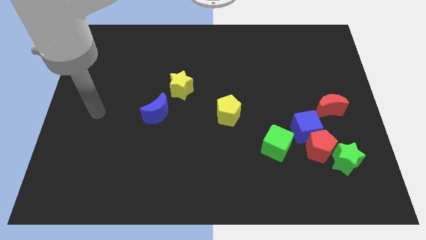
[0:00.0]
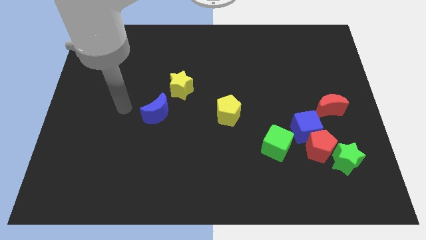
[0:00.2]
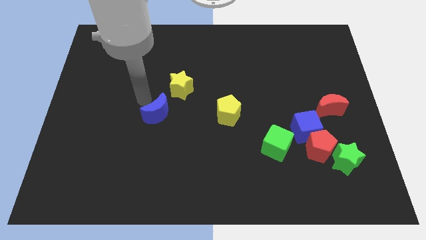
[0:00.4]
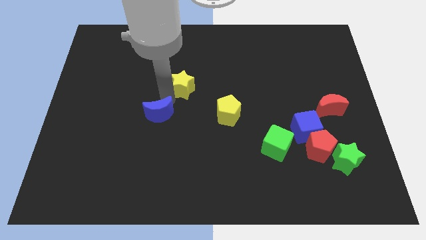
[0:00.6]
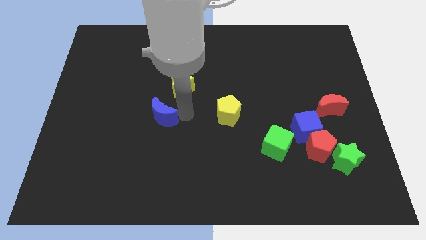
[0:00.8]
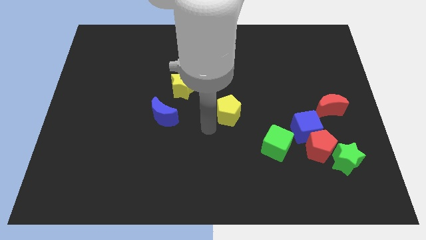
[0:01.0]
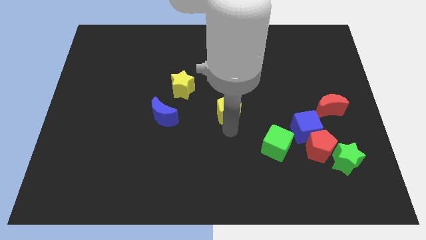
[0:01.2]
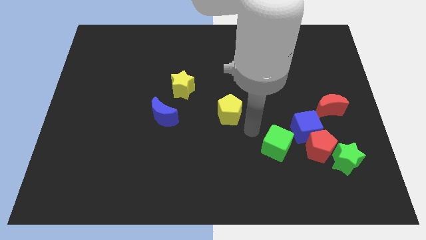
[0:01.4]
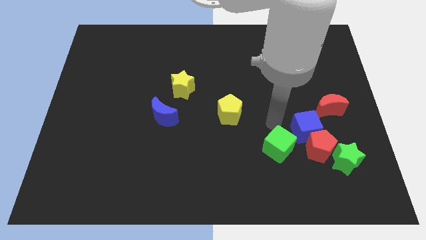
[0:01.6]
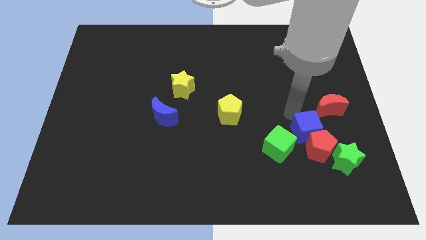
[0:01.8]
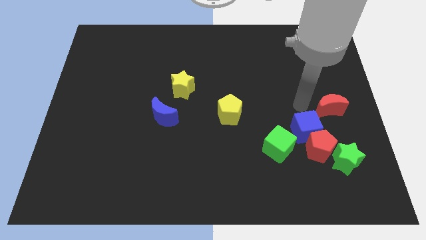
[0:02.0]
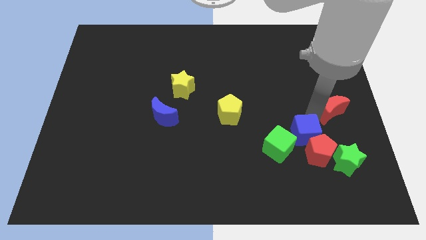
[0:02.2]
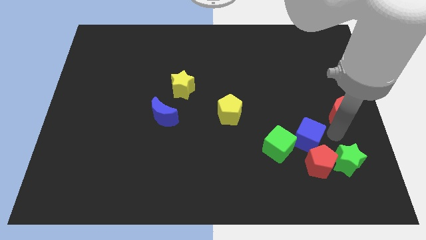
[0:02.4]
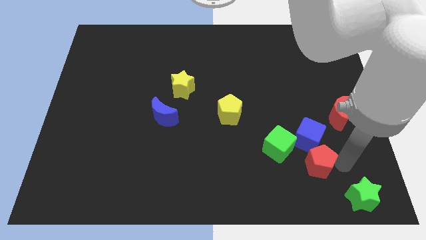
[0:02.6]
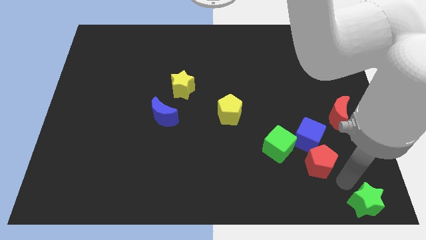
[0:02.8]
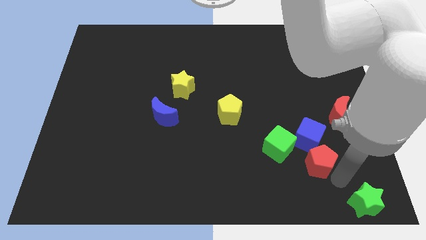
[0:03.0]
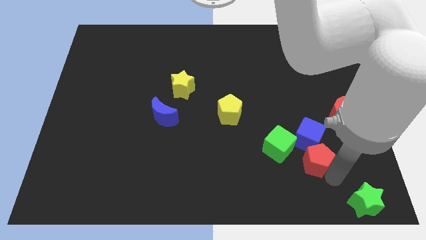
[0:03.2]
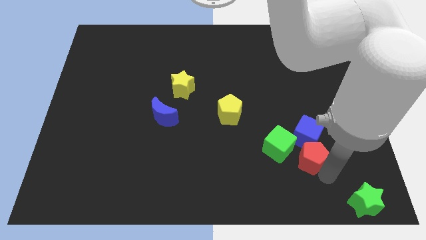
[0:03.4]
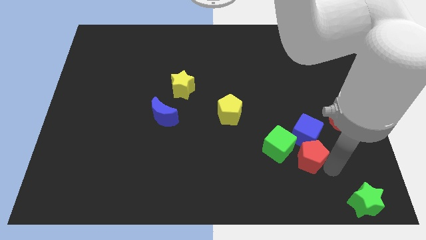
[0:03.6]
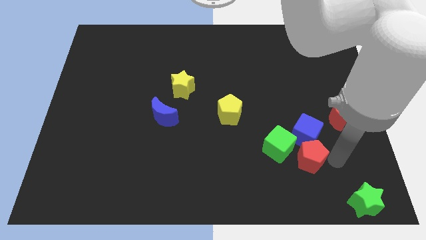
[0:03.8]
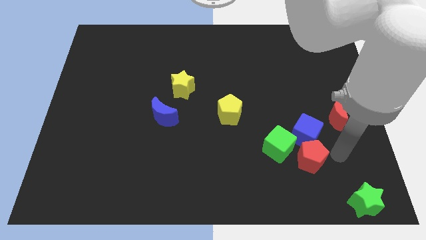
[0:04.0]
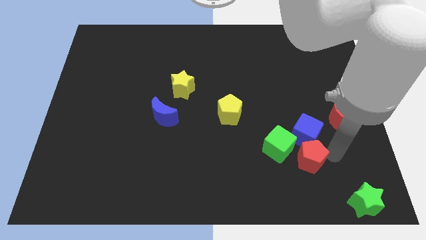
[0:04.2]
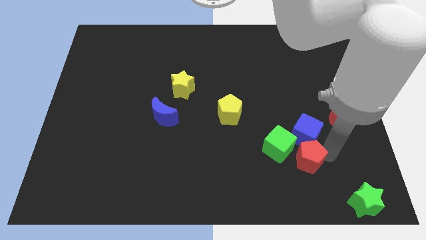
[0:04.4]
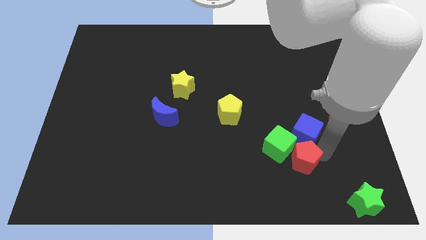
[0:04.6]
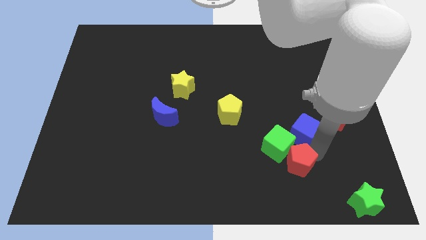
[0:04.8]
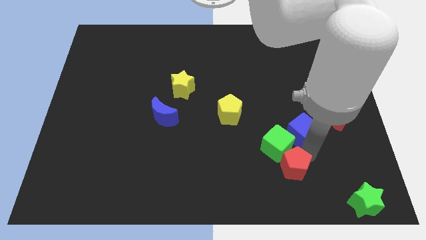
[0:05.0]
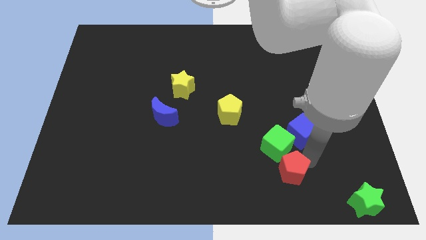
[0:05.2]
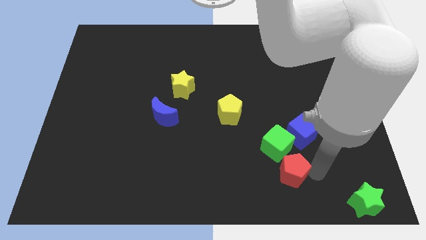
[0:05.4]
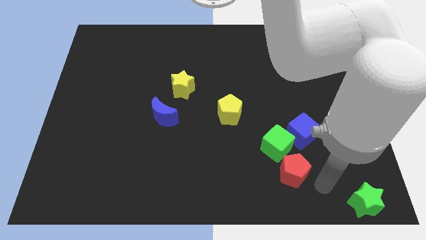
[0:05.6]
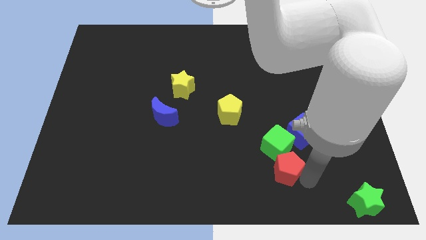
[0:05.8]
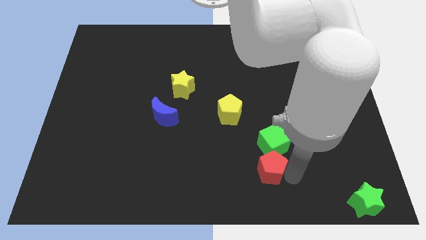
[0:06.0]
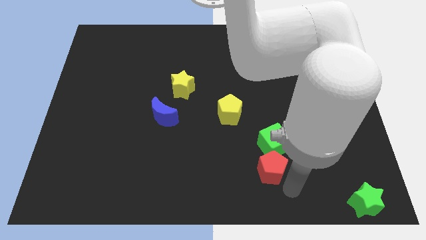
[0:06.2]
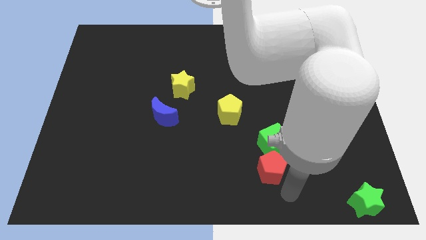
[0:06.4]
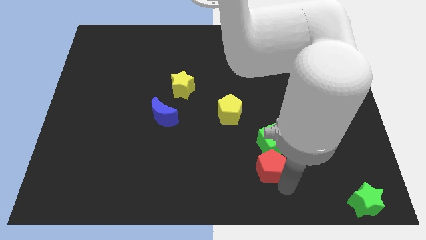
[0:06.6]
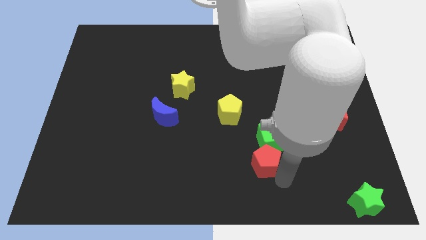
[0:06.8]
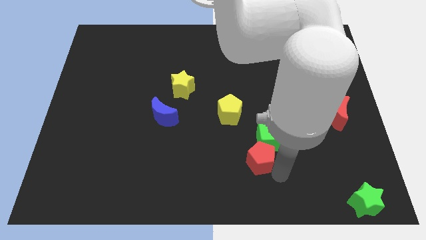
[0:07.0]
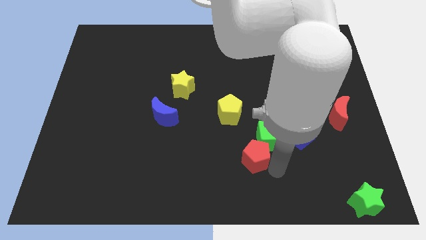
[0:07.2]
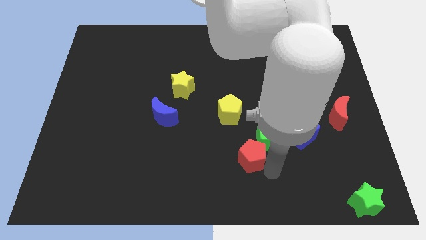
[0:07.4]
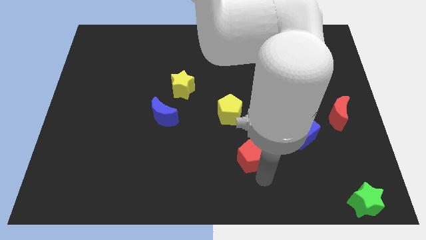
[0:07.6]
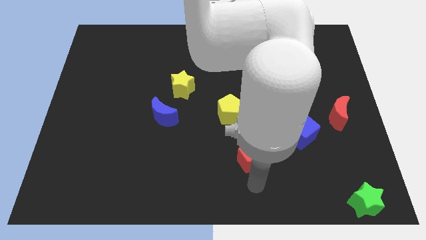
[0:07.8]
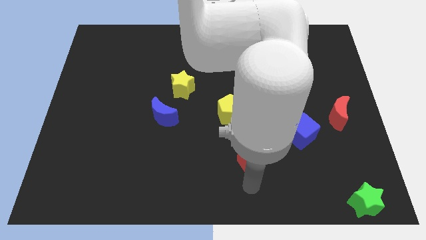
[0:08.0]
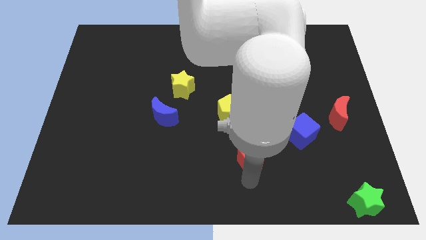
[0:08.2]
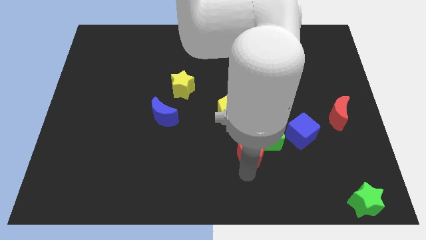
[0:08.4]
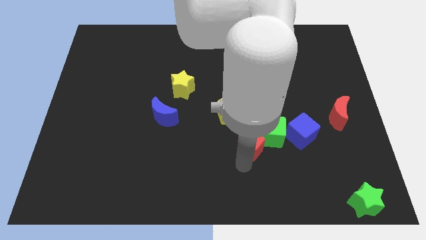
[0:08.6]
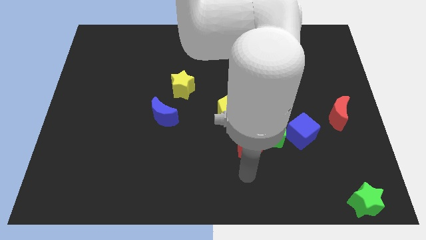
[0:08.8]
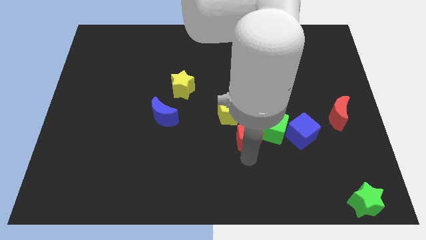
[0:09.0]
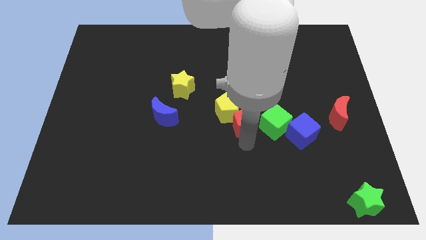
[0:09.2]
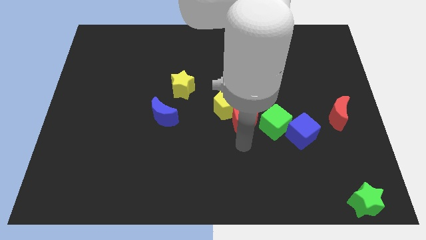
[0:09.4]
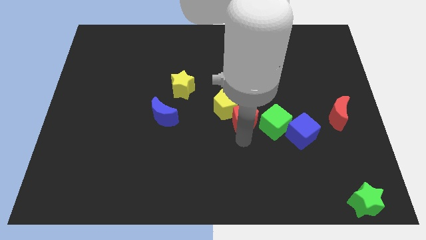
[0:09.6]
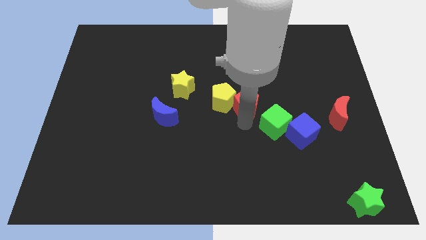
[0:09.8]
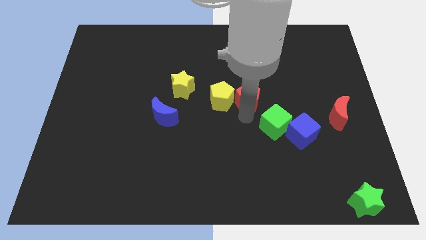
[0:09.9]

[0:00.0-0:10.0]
put the red pentagon to the top right side of the yellow pentagon

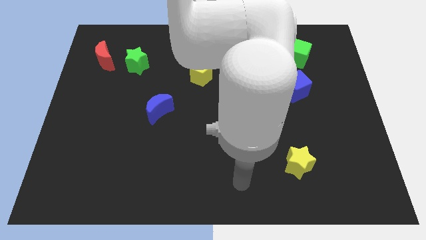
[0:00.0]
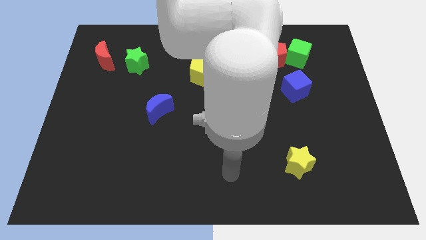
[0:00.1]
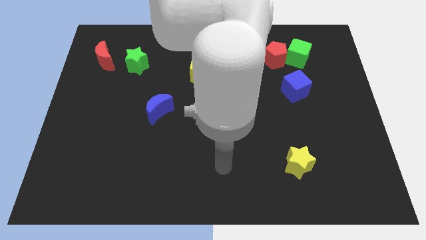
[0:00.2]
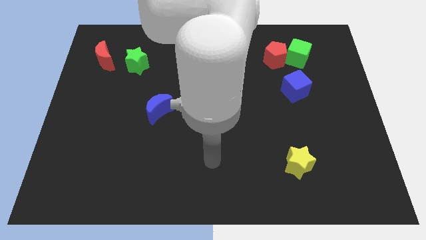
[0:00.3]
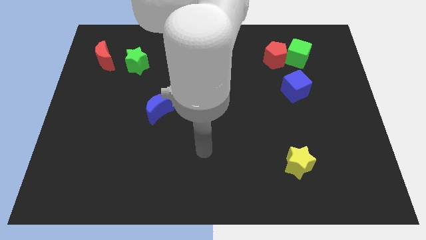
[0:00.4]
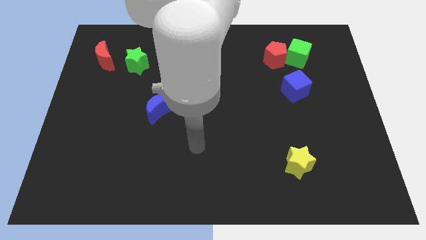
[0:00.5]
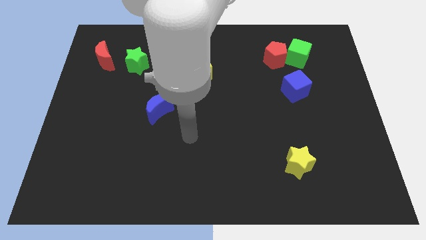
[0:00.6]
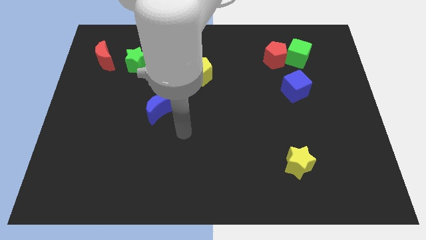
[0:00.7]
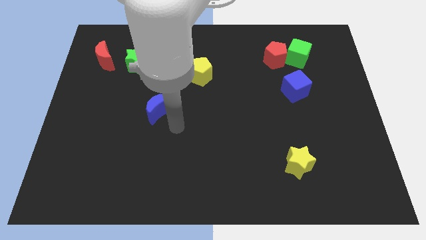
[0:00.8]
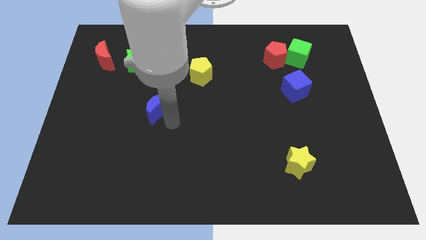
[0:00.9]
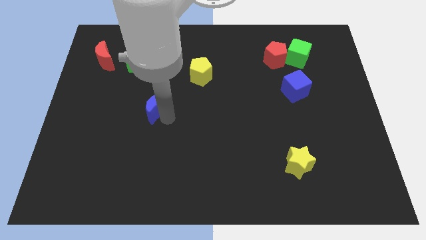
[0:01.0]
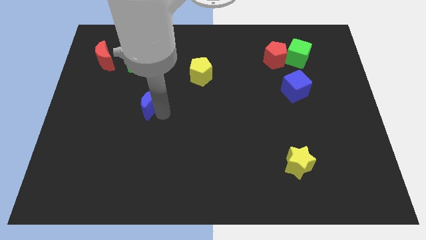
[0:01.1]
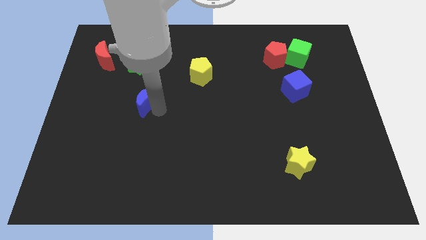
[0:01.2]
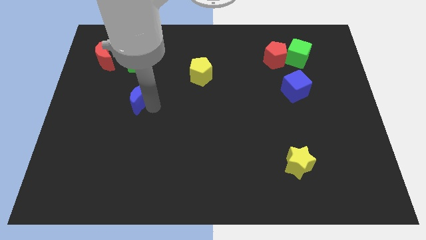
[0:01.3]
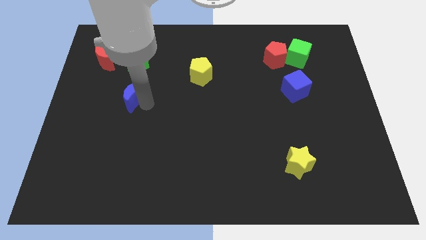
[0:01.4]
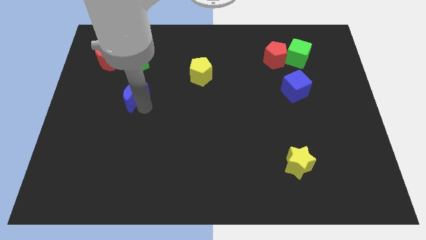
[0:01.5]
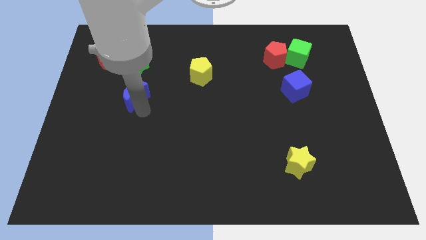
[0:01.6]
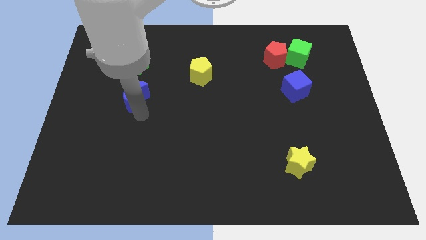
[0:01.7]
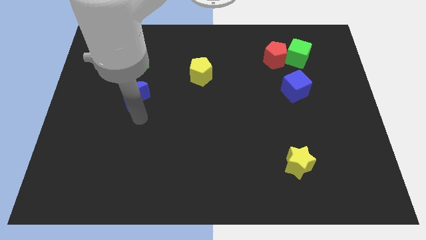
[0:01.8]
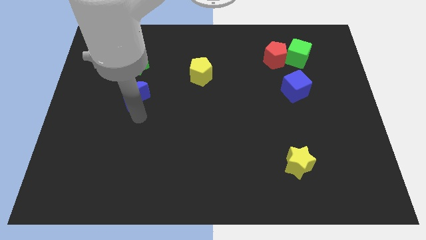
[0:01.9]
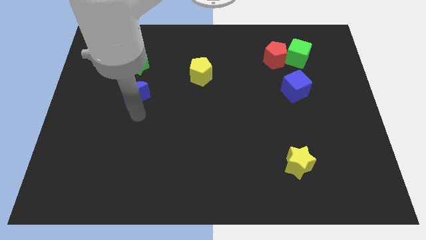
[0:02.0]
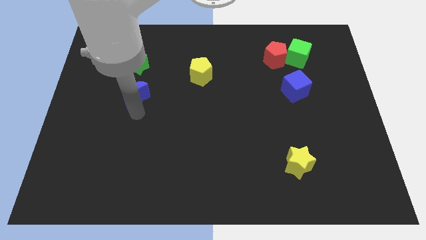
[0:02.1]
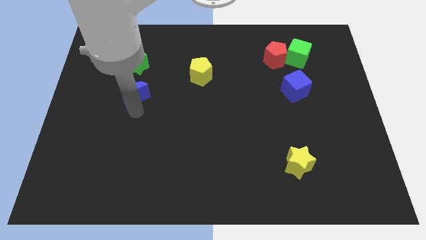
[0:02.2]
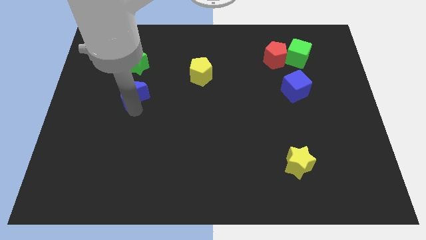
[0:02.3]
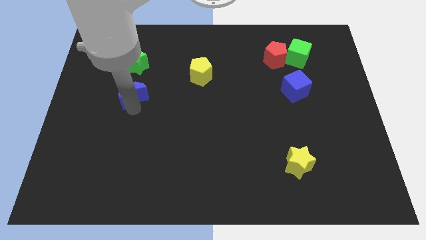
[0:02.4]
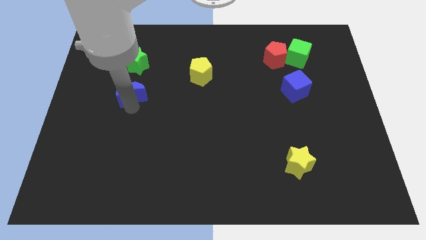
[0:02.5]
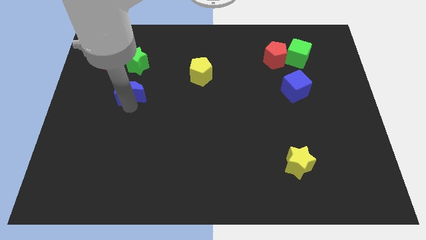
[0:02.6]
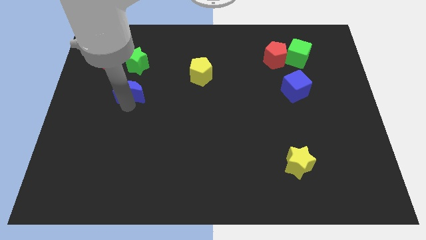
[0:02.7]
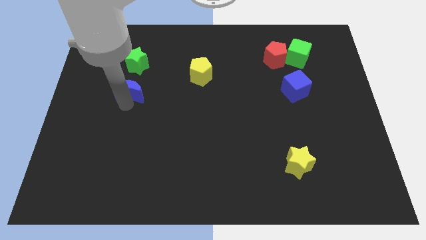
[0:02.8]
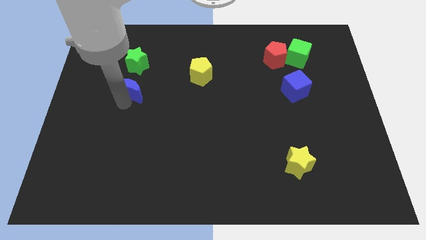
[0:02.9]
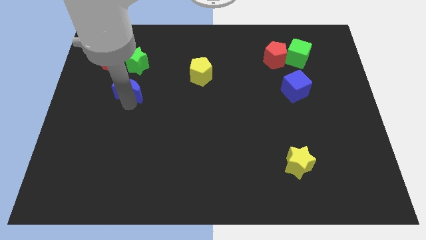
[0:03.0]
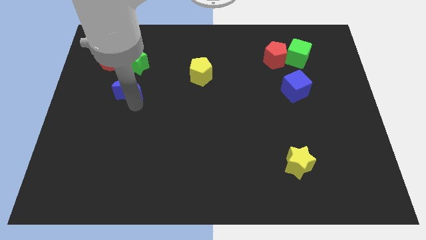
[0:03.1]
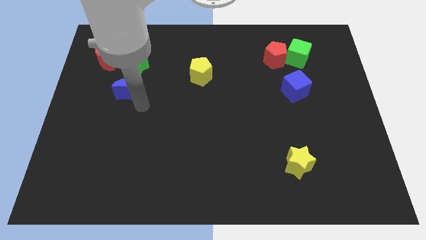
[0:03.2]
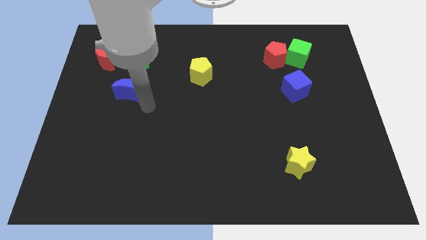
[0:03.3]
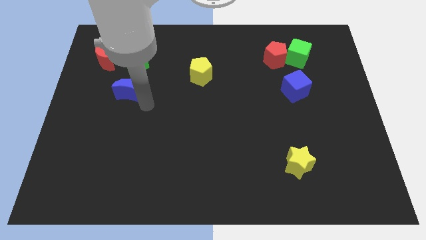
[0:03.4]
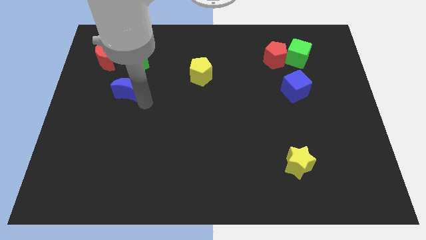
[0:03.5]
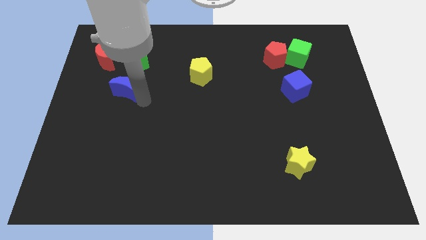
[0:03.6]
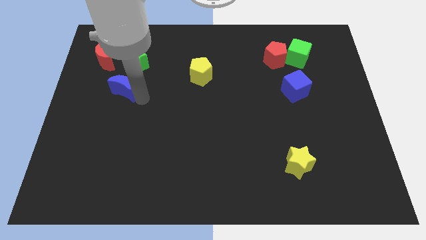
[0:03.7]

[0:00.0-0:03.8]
move the blue moon diagonally down and to the left of the green star
